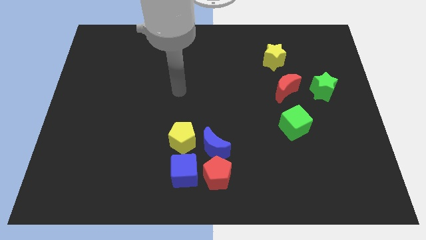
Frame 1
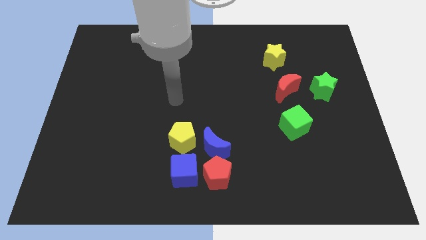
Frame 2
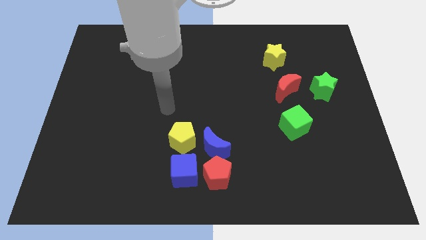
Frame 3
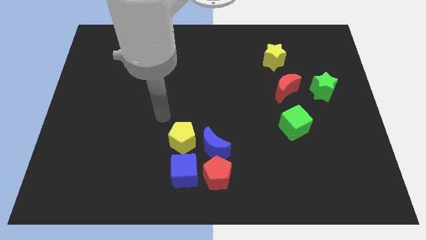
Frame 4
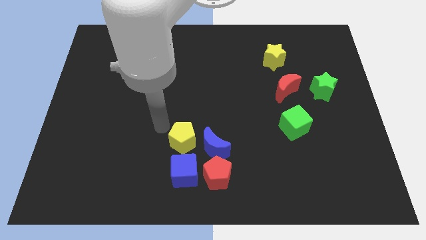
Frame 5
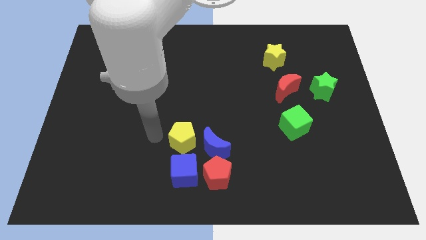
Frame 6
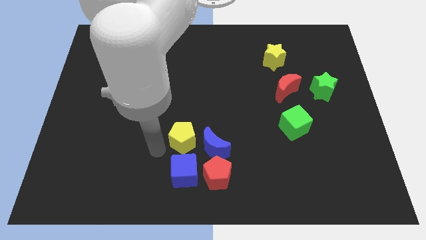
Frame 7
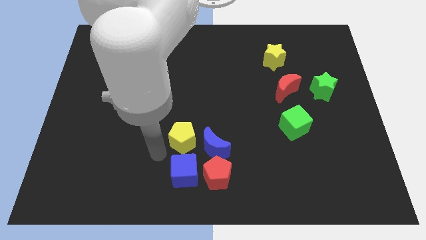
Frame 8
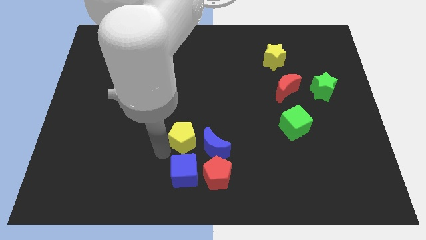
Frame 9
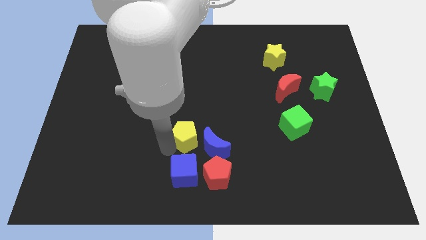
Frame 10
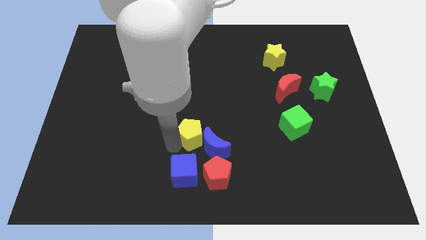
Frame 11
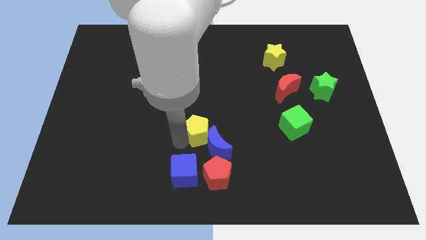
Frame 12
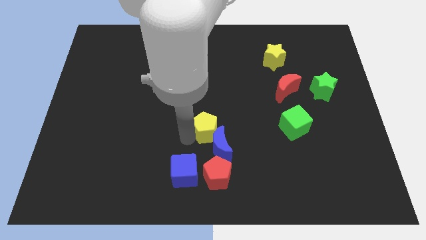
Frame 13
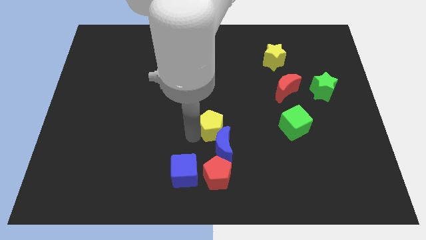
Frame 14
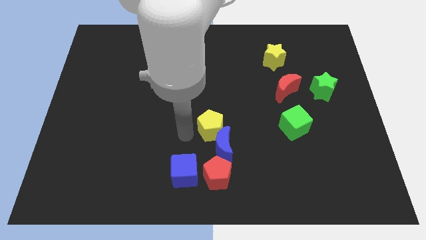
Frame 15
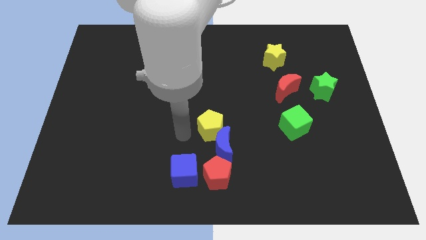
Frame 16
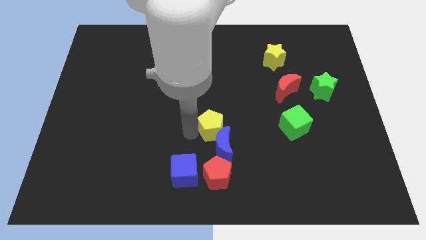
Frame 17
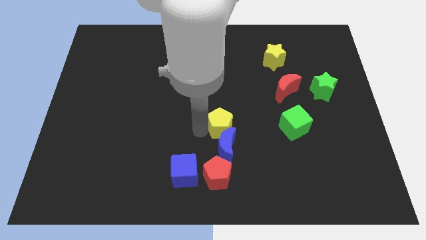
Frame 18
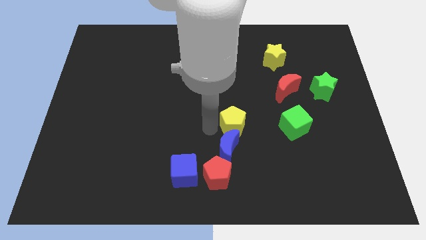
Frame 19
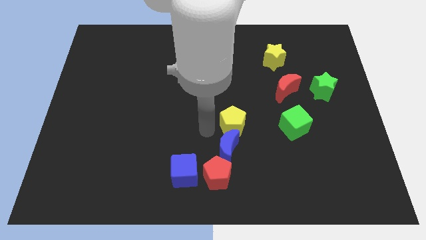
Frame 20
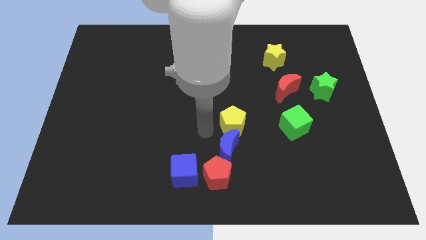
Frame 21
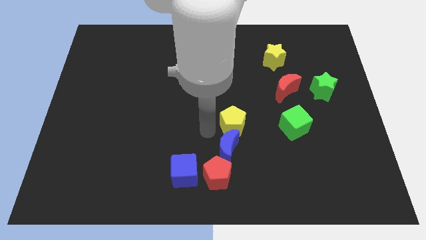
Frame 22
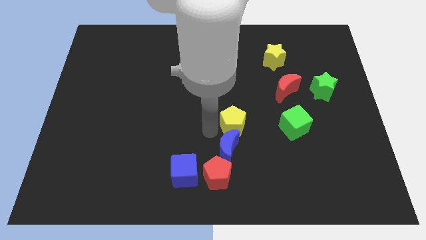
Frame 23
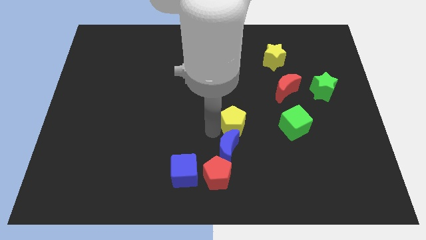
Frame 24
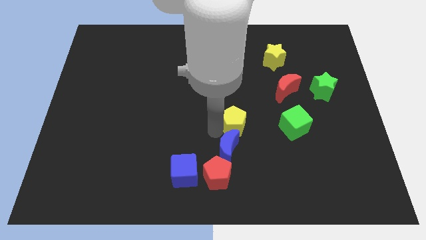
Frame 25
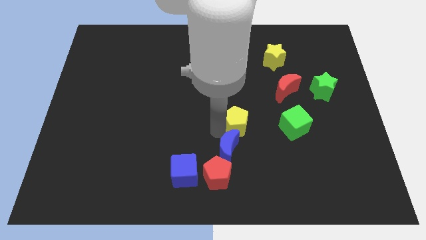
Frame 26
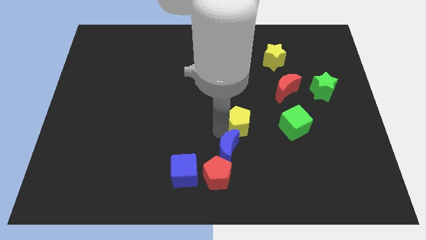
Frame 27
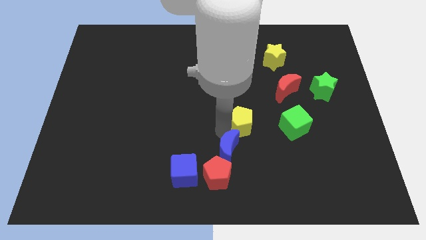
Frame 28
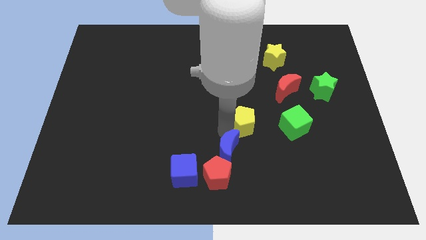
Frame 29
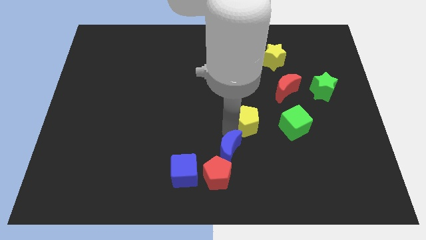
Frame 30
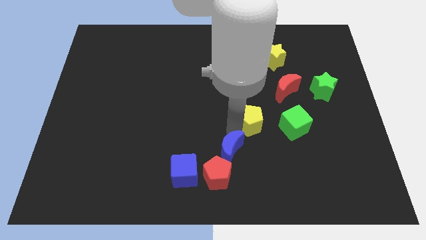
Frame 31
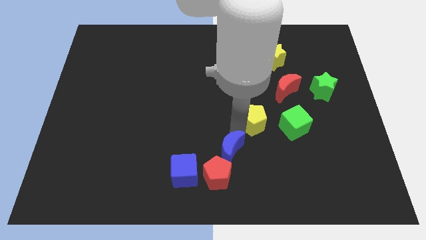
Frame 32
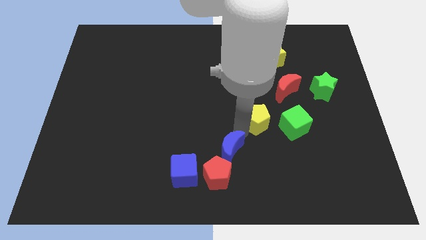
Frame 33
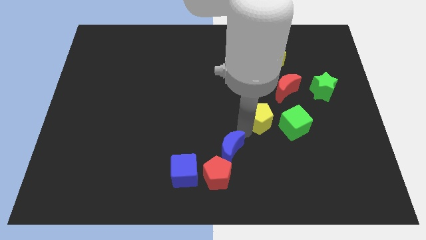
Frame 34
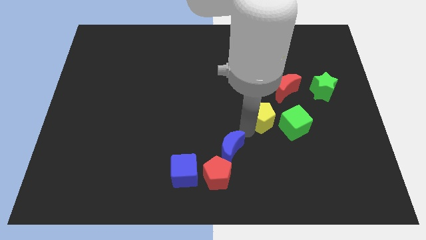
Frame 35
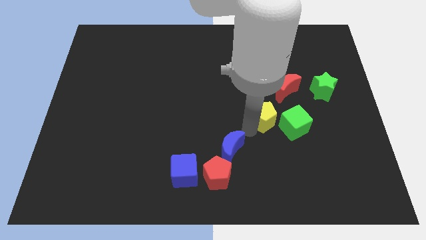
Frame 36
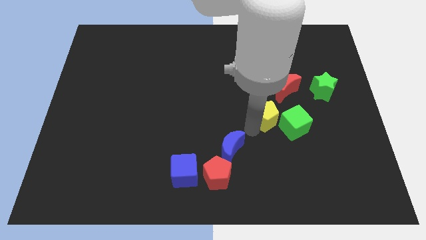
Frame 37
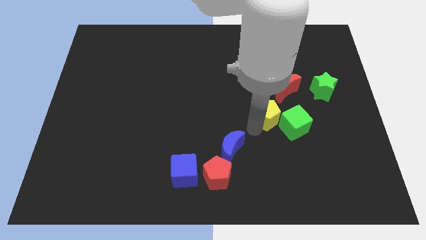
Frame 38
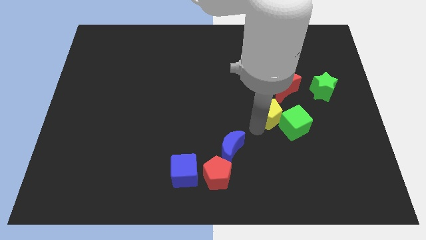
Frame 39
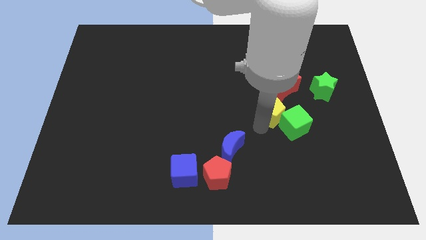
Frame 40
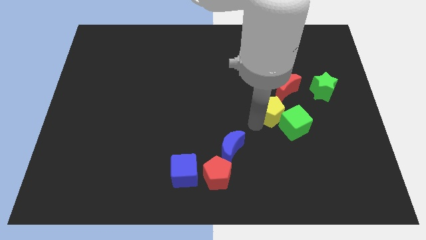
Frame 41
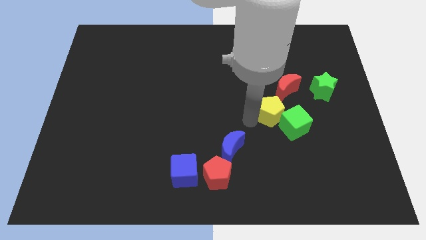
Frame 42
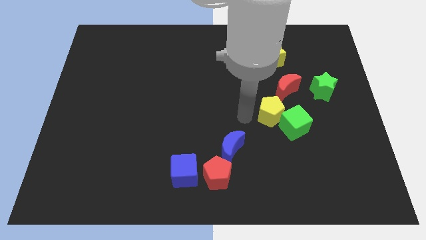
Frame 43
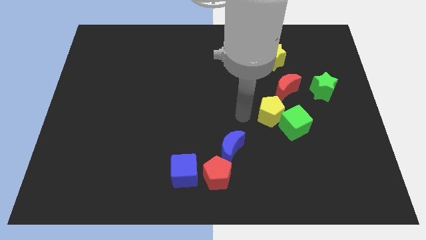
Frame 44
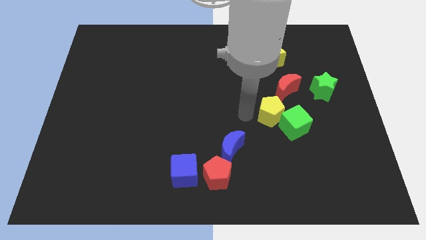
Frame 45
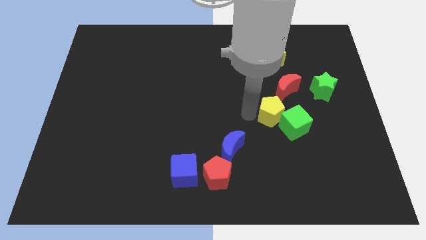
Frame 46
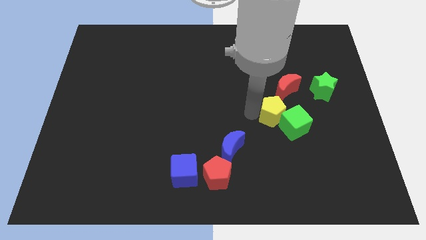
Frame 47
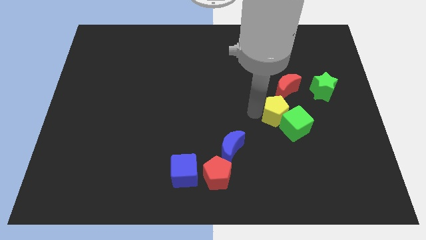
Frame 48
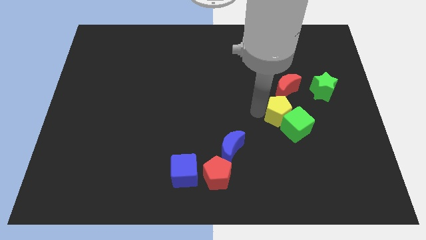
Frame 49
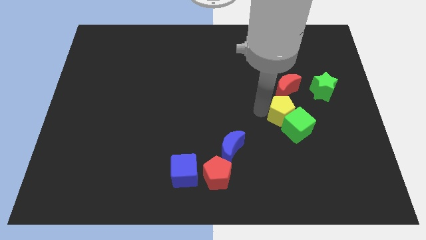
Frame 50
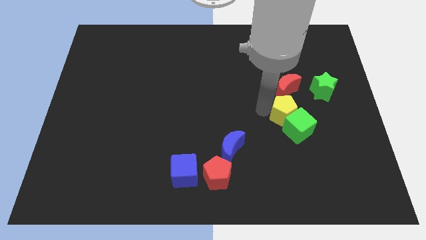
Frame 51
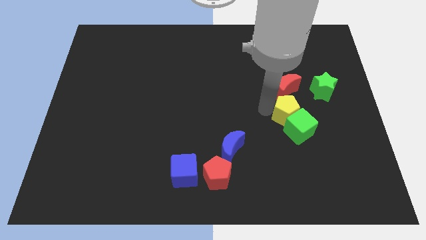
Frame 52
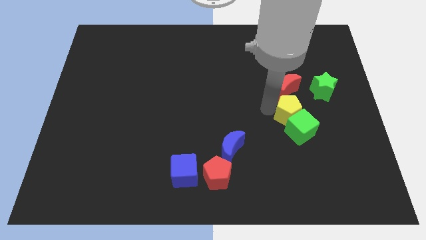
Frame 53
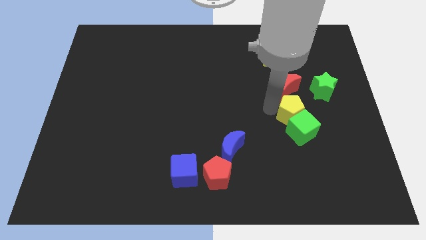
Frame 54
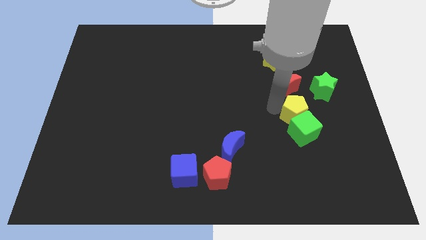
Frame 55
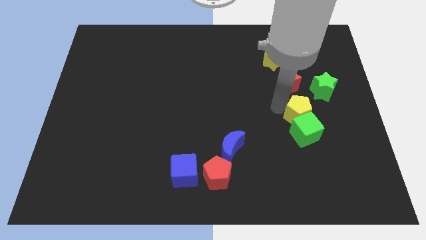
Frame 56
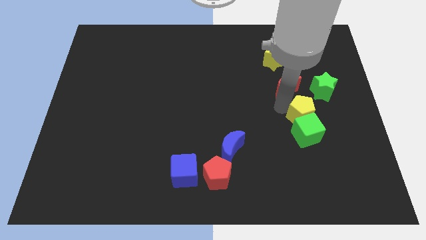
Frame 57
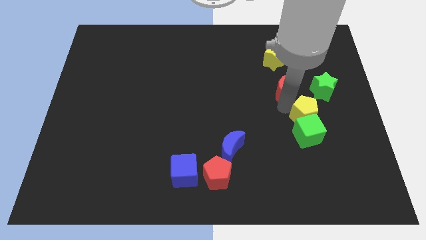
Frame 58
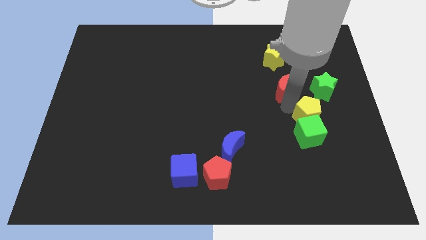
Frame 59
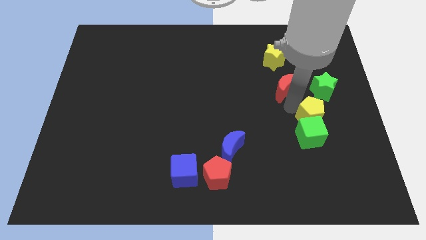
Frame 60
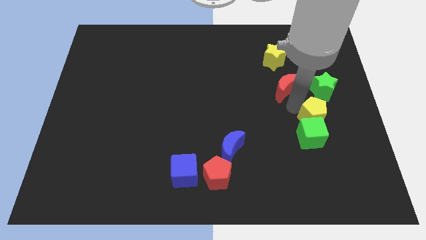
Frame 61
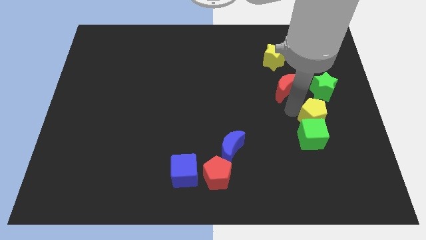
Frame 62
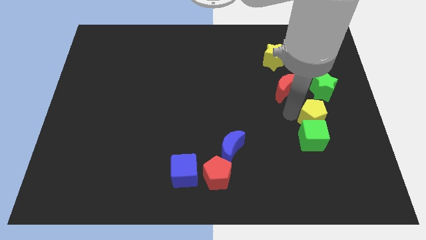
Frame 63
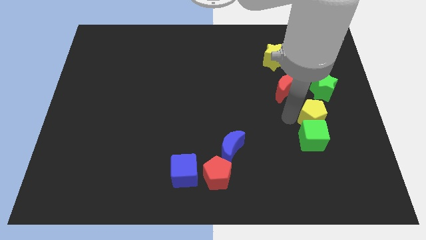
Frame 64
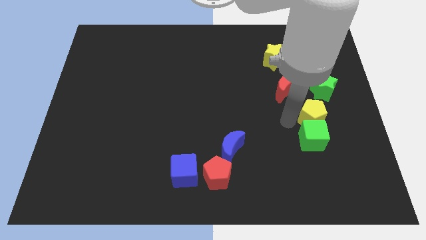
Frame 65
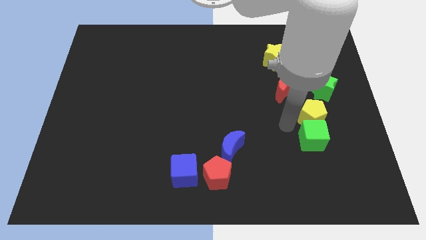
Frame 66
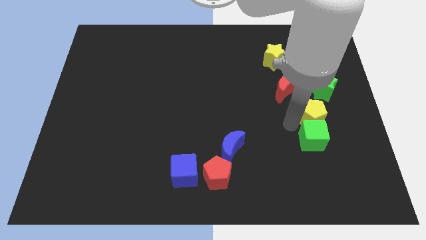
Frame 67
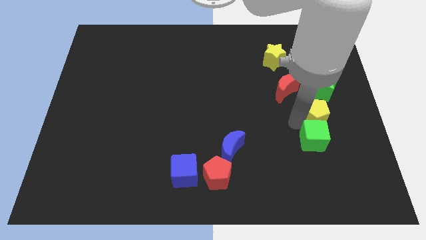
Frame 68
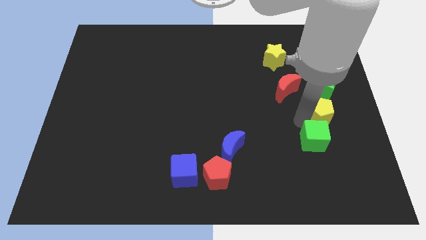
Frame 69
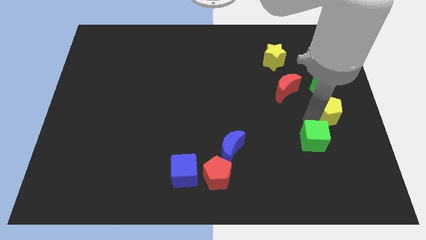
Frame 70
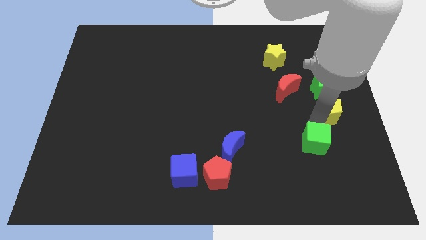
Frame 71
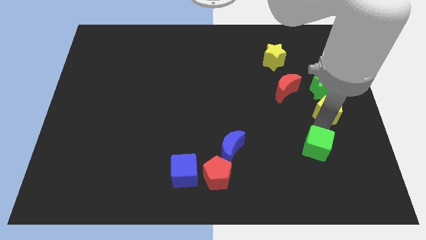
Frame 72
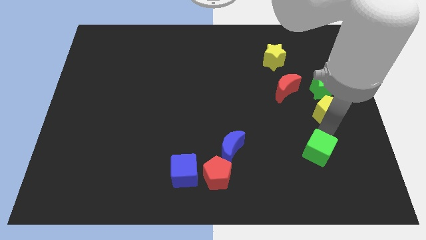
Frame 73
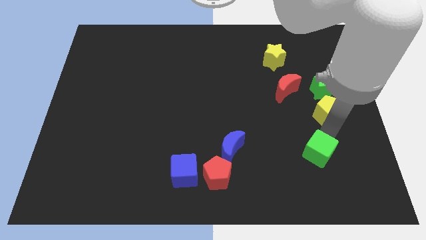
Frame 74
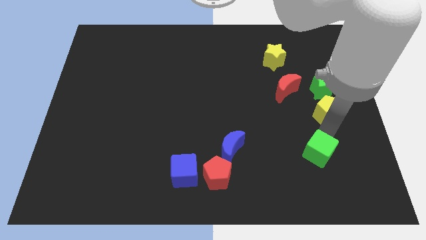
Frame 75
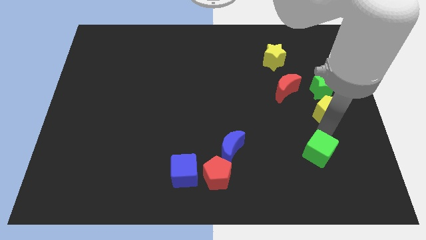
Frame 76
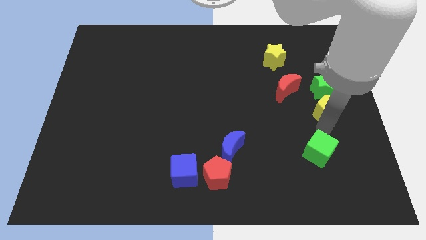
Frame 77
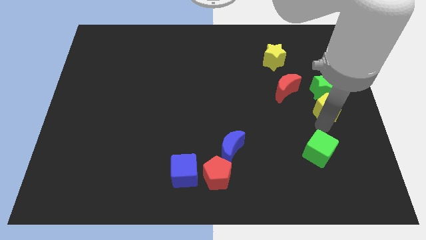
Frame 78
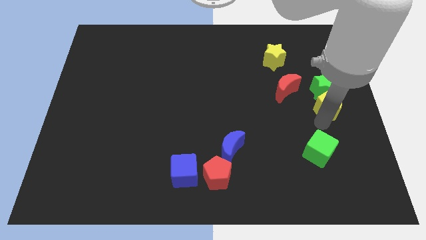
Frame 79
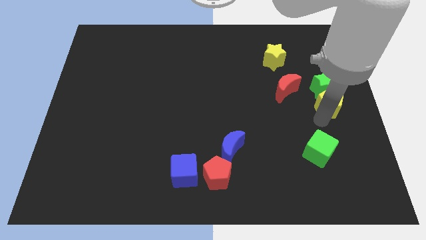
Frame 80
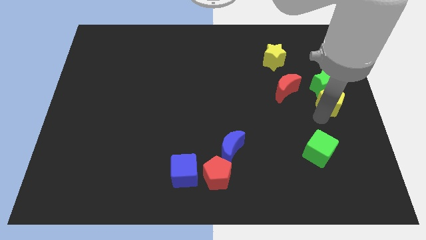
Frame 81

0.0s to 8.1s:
move the yellow pentagon just right of the red moon
